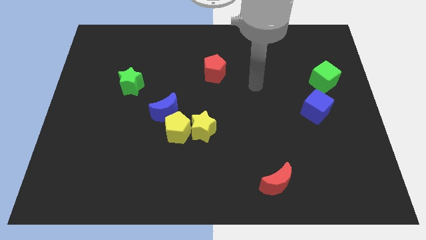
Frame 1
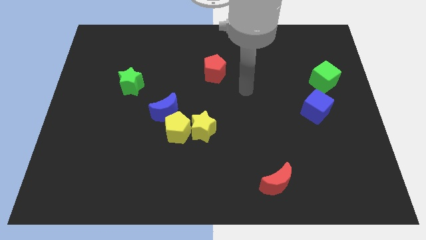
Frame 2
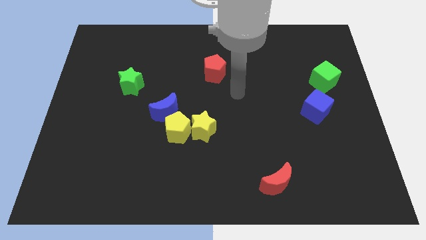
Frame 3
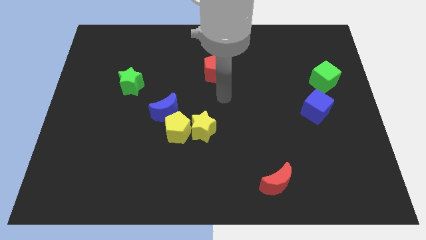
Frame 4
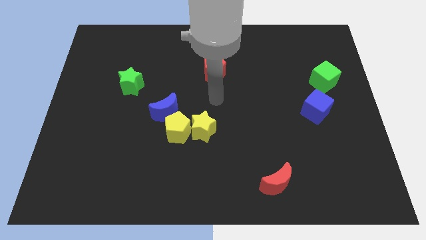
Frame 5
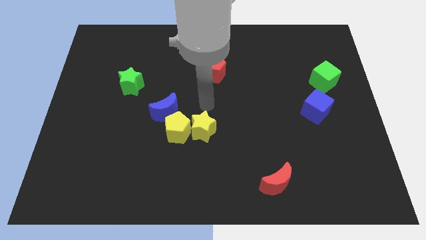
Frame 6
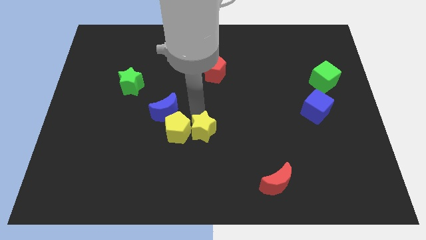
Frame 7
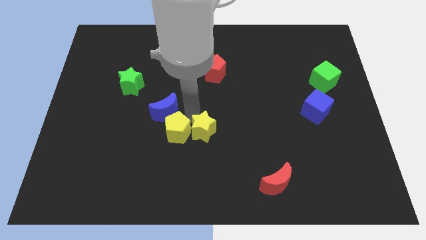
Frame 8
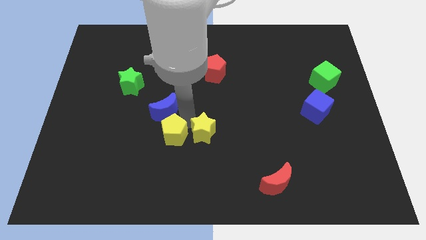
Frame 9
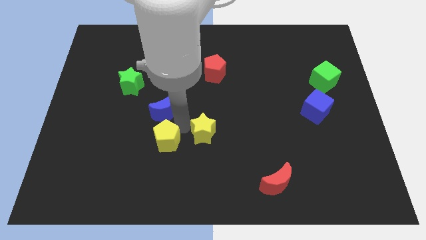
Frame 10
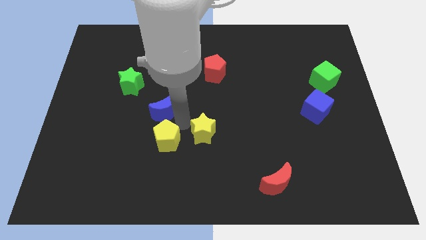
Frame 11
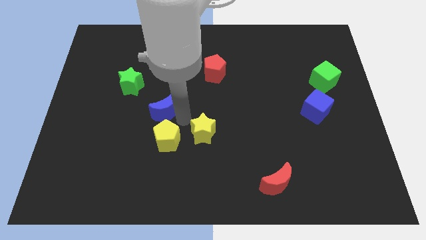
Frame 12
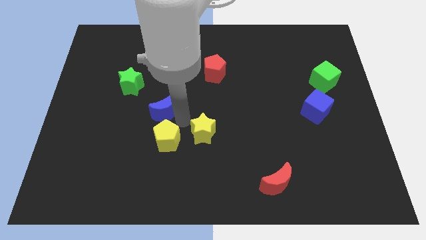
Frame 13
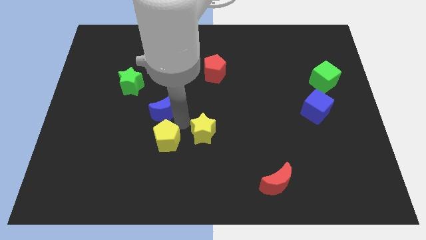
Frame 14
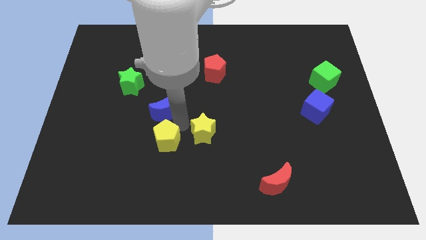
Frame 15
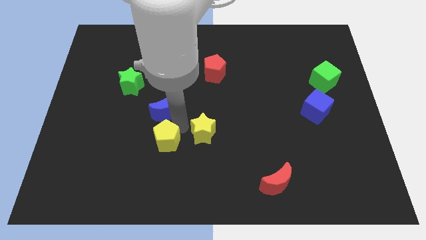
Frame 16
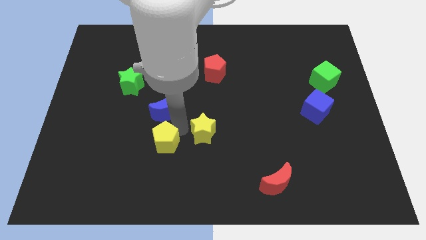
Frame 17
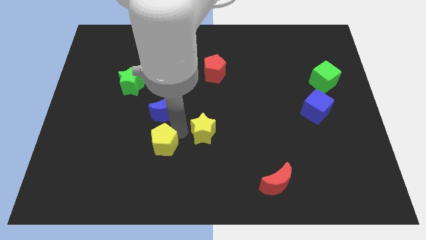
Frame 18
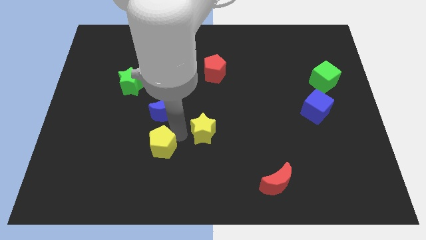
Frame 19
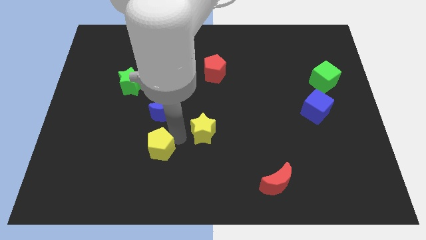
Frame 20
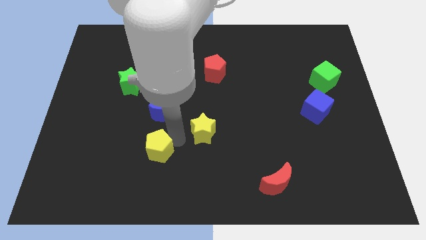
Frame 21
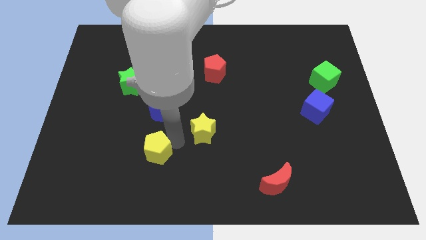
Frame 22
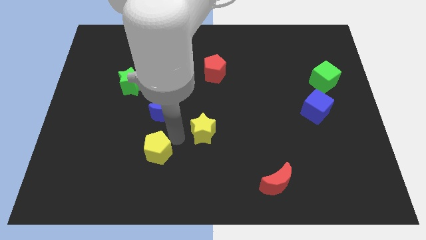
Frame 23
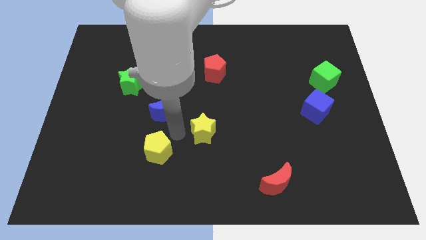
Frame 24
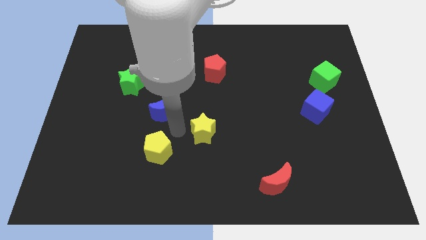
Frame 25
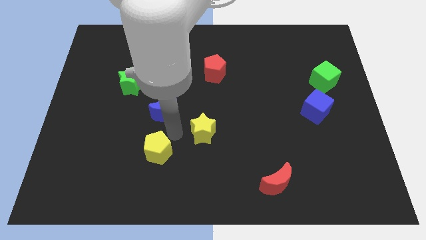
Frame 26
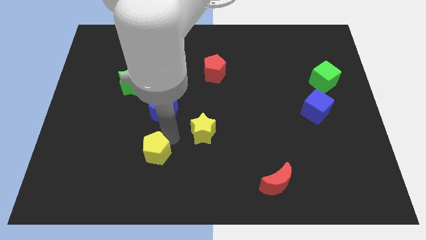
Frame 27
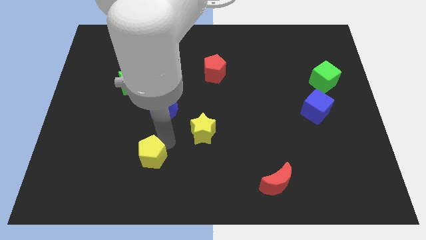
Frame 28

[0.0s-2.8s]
pull the yellow pentagon apart from the yellow star and blue moon

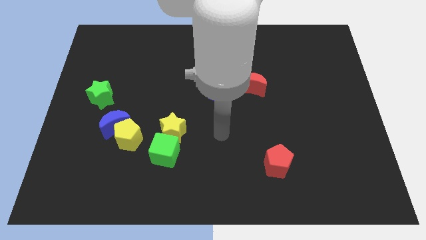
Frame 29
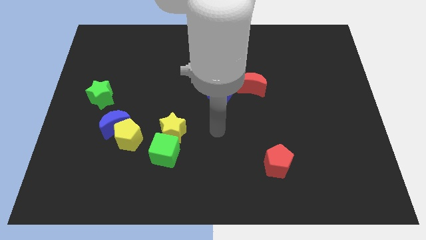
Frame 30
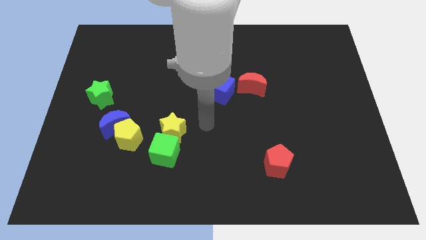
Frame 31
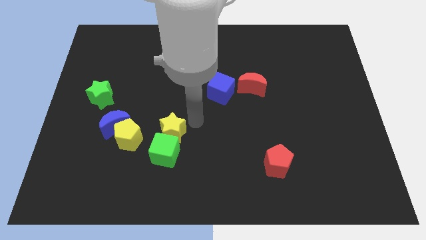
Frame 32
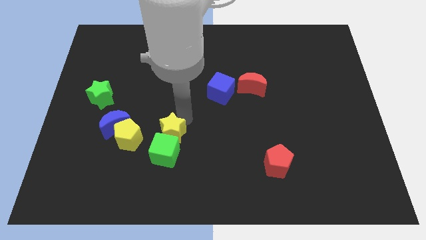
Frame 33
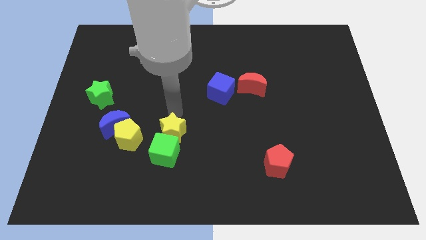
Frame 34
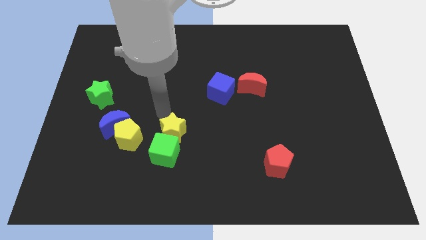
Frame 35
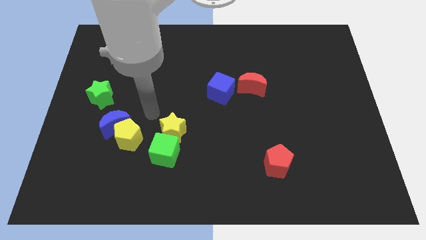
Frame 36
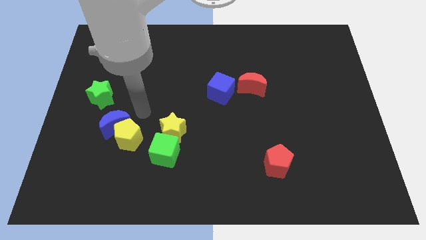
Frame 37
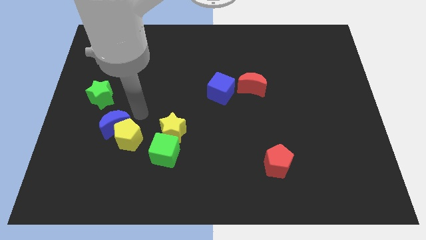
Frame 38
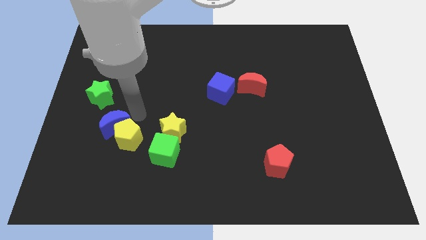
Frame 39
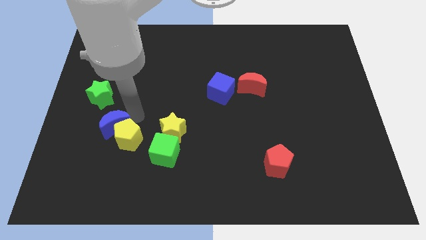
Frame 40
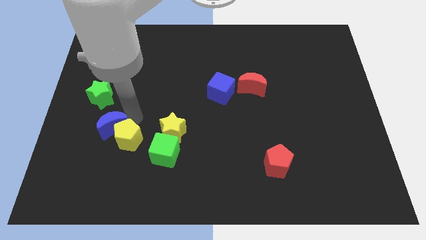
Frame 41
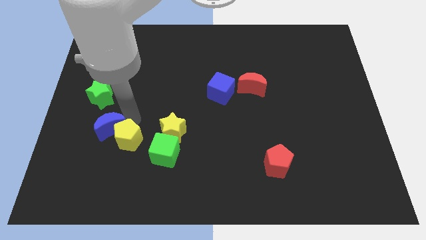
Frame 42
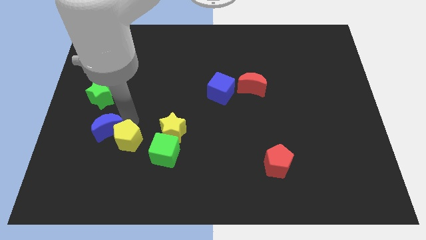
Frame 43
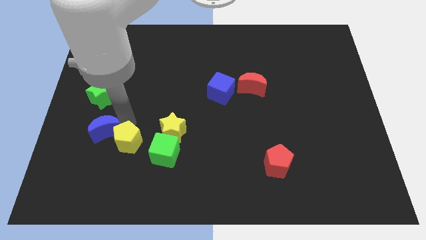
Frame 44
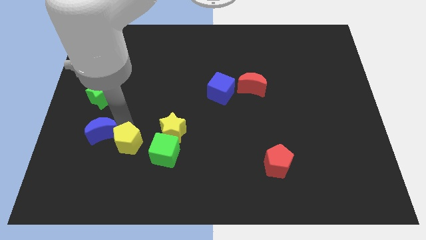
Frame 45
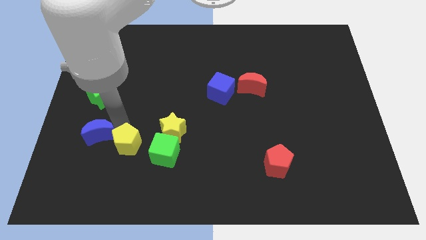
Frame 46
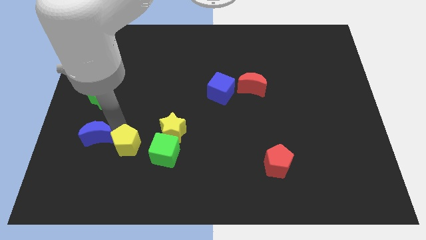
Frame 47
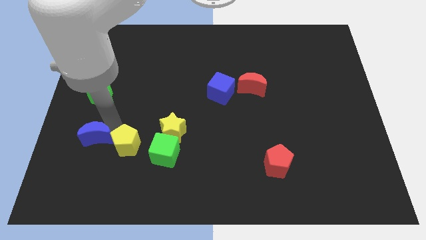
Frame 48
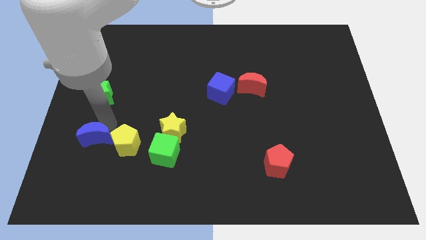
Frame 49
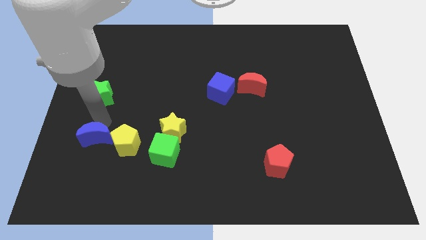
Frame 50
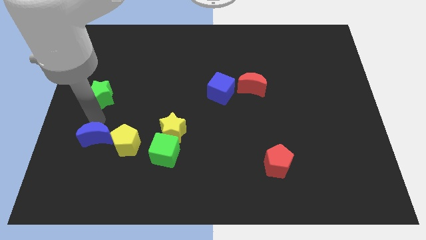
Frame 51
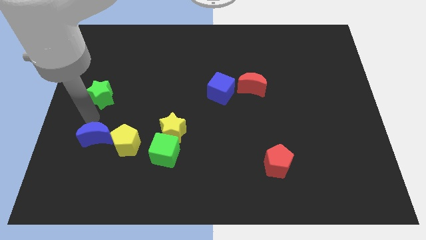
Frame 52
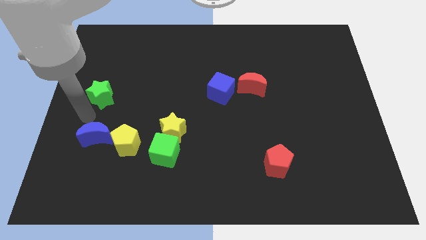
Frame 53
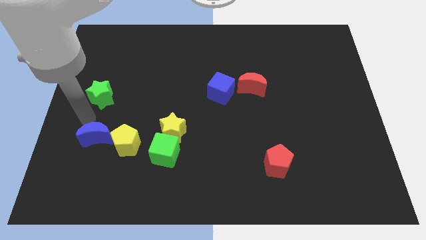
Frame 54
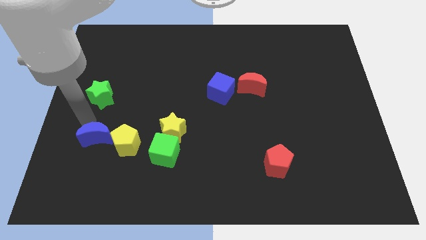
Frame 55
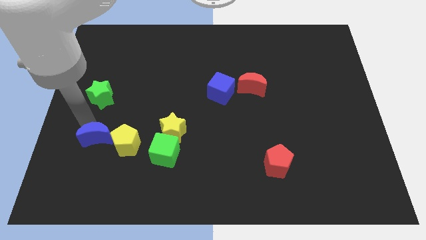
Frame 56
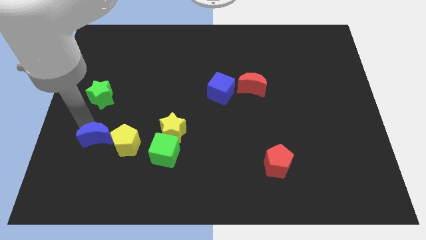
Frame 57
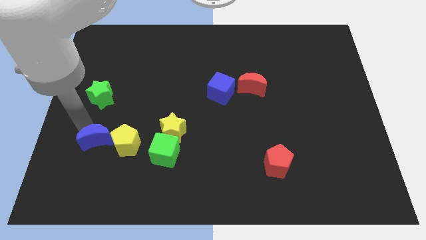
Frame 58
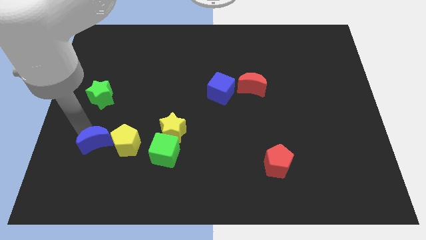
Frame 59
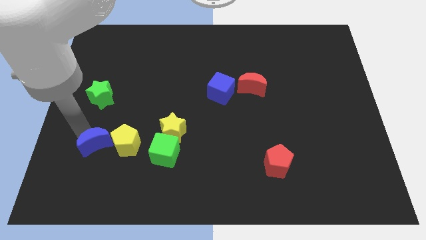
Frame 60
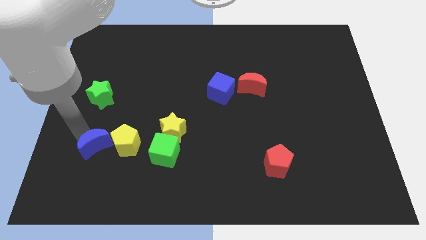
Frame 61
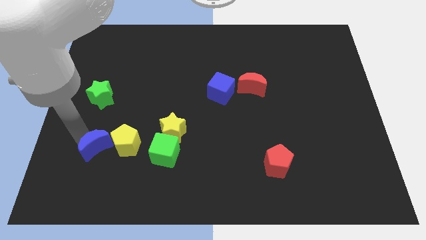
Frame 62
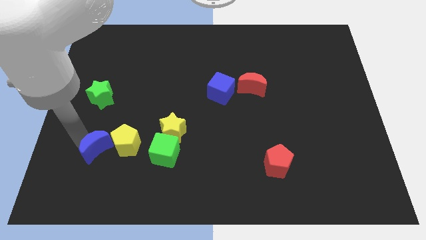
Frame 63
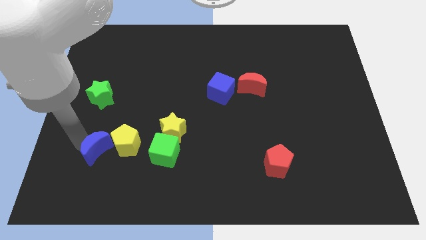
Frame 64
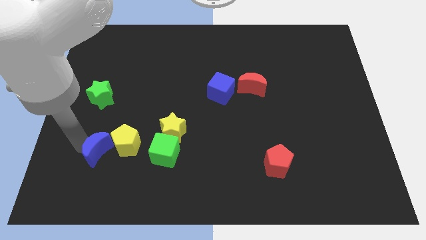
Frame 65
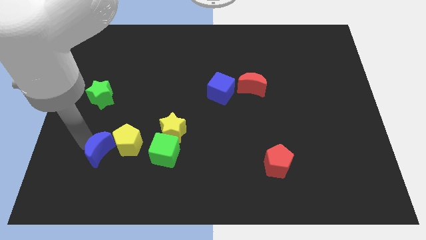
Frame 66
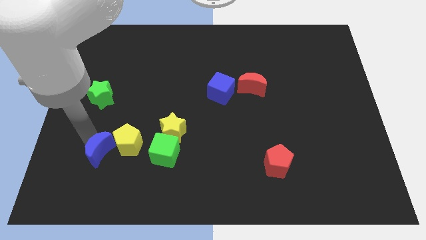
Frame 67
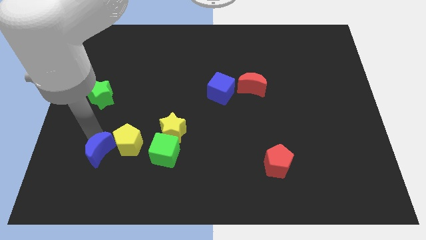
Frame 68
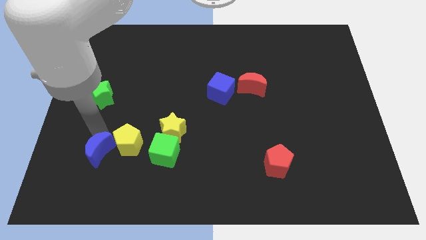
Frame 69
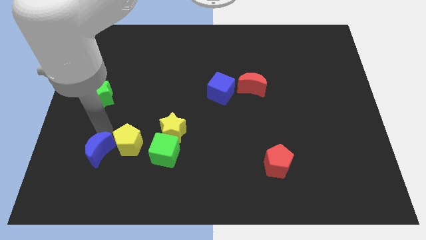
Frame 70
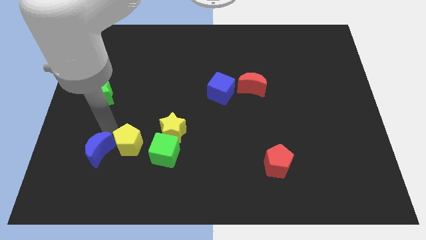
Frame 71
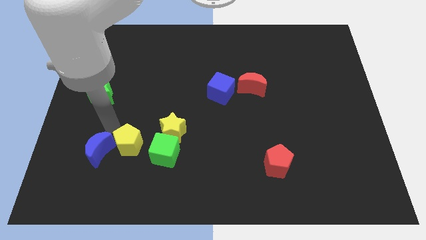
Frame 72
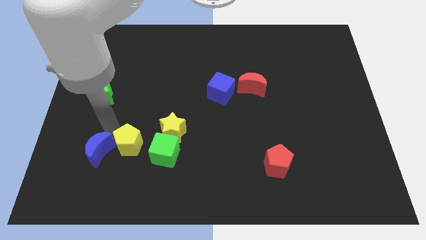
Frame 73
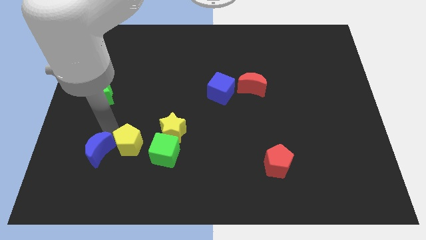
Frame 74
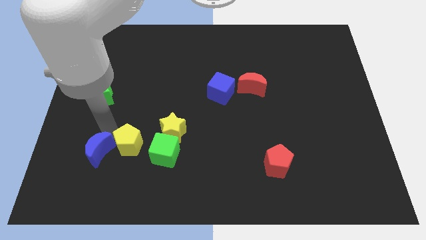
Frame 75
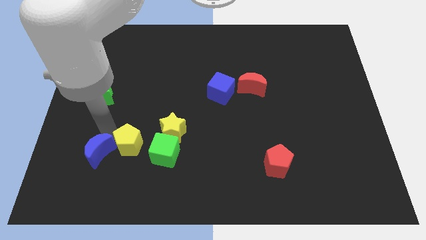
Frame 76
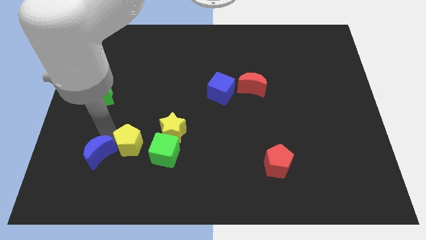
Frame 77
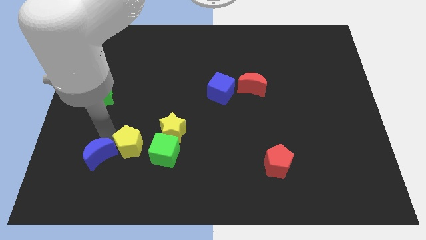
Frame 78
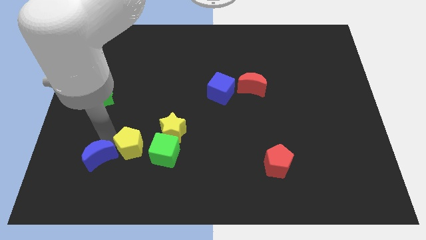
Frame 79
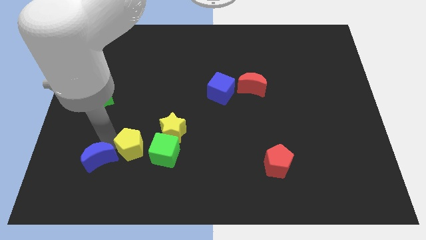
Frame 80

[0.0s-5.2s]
move the blue moon away from the yellow pentagon and green star

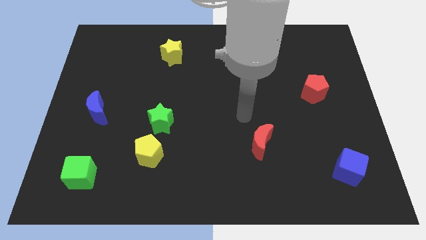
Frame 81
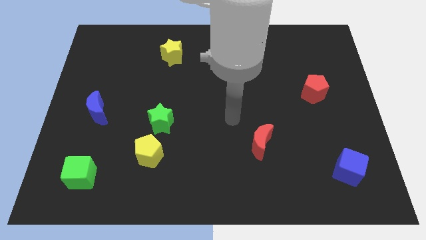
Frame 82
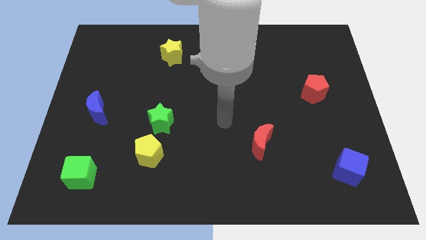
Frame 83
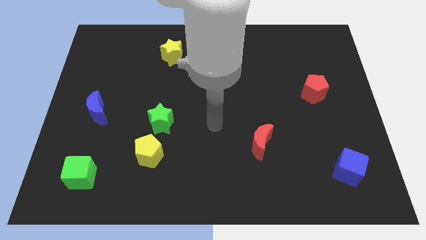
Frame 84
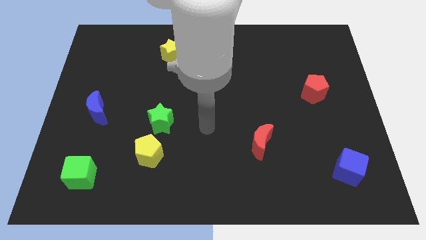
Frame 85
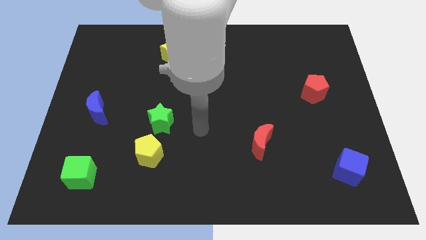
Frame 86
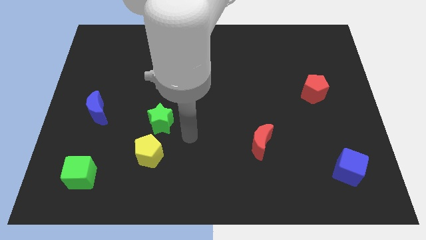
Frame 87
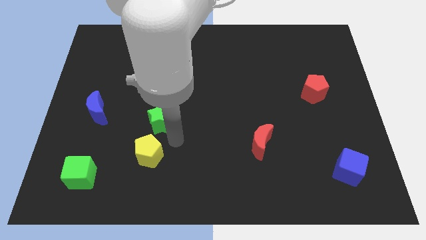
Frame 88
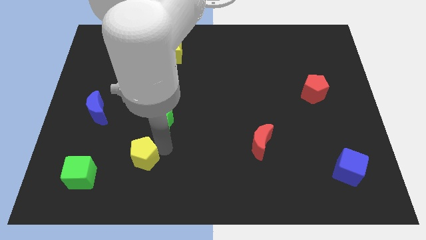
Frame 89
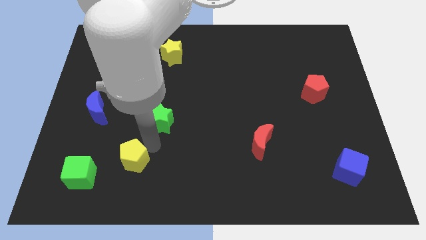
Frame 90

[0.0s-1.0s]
pull the green star apart from the yellow pentagon

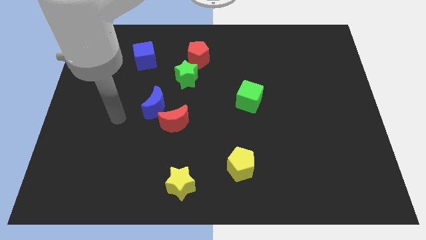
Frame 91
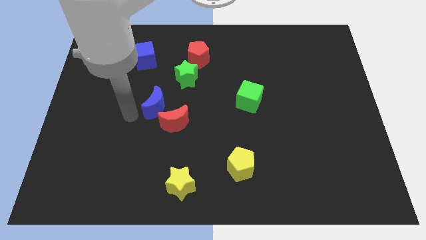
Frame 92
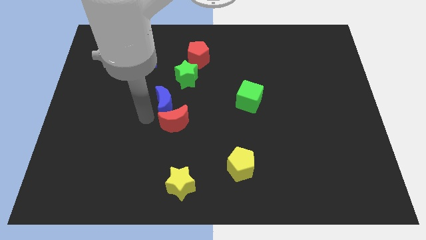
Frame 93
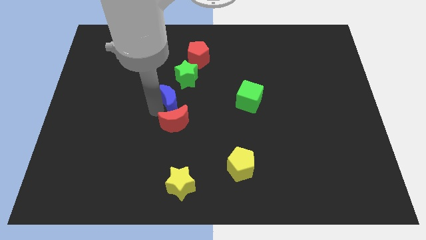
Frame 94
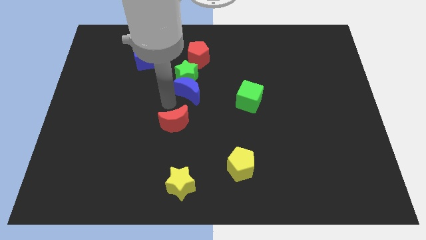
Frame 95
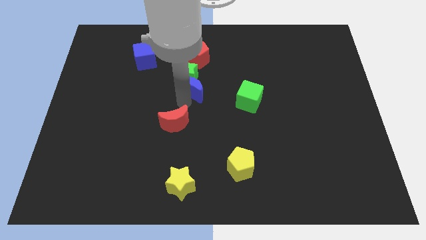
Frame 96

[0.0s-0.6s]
separate the red moon from the blue moon
